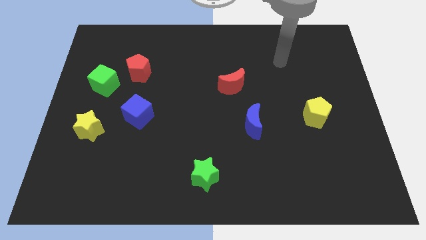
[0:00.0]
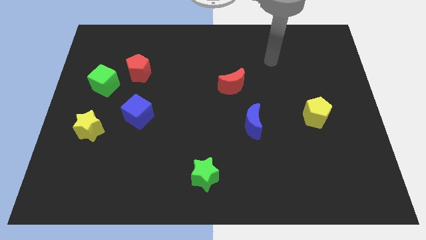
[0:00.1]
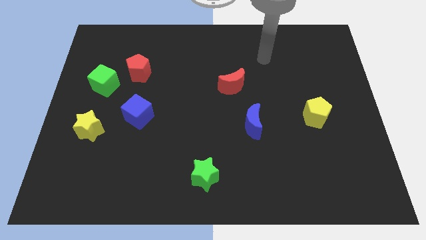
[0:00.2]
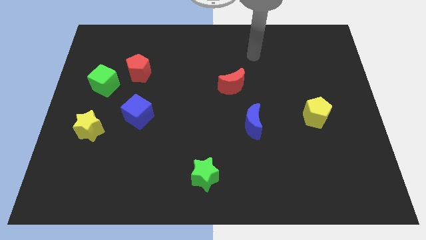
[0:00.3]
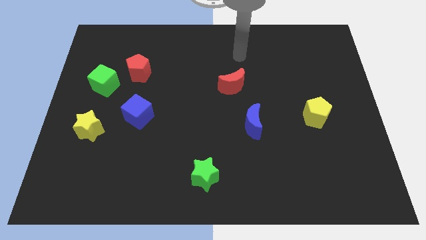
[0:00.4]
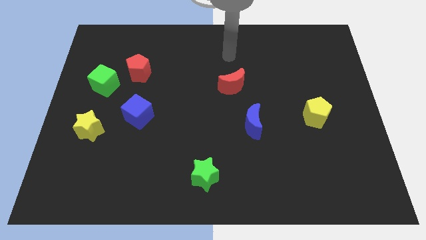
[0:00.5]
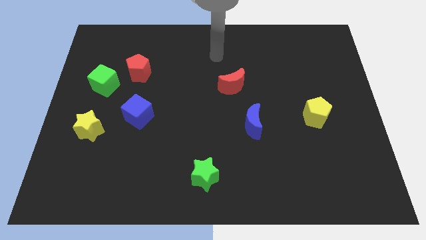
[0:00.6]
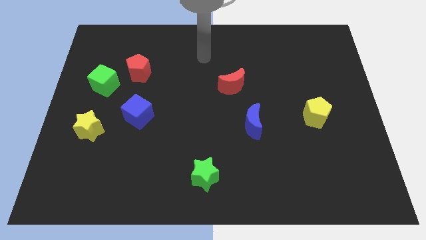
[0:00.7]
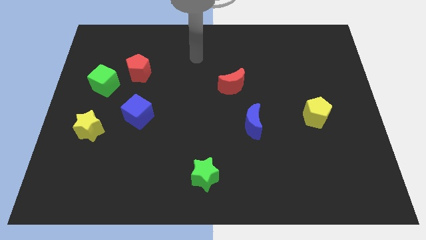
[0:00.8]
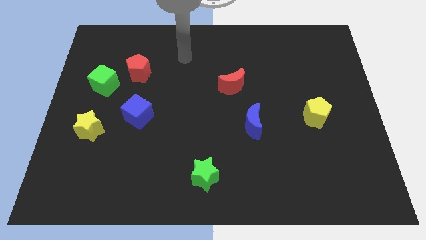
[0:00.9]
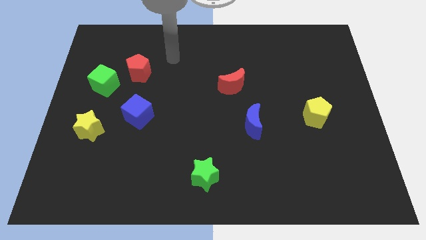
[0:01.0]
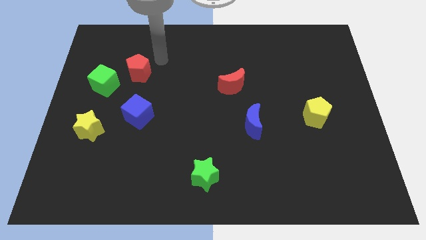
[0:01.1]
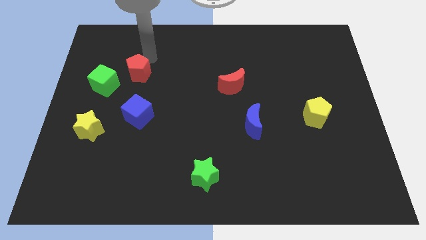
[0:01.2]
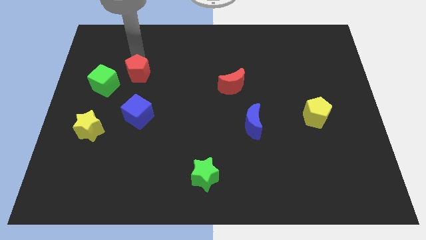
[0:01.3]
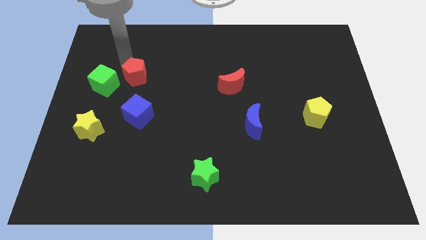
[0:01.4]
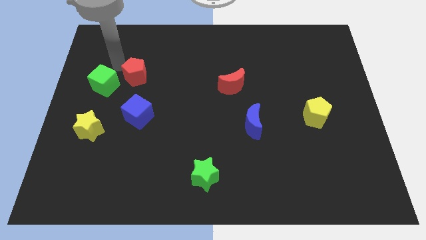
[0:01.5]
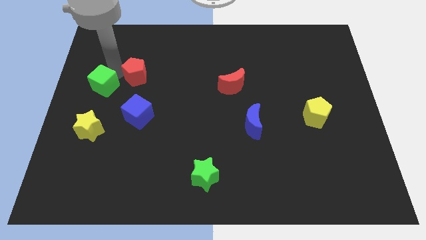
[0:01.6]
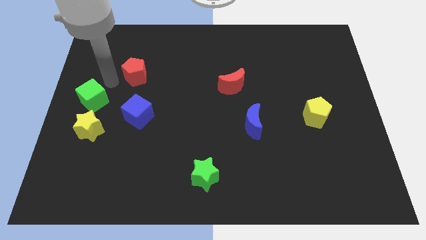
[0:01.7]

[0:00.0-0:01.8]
move the red pentagon away from the green cube

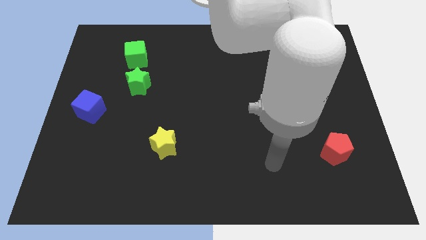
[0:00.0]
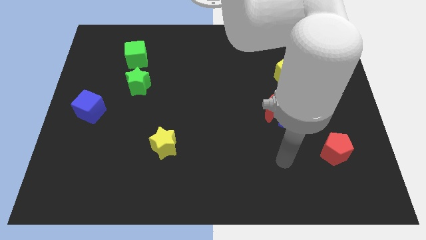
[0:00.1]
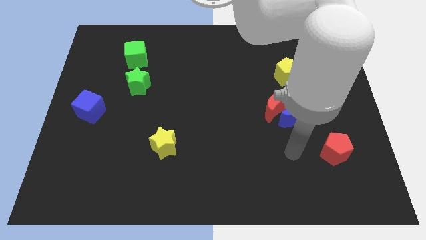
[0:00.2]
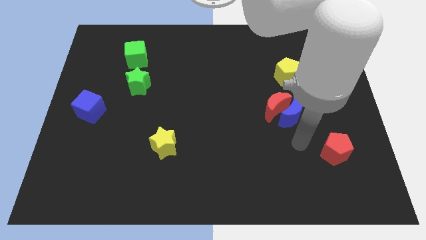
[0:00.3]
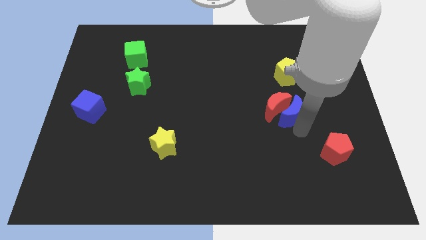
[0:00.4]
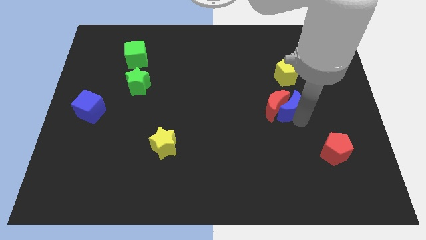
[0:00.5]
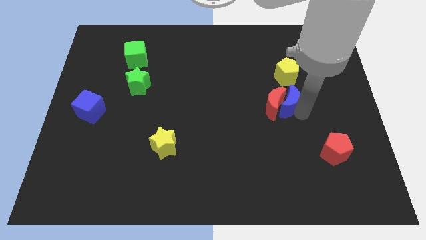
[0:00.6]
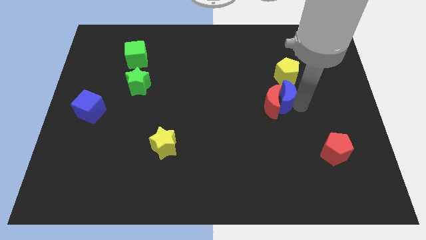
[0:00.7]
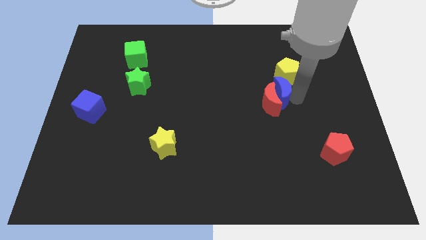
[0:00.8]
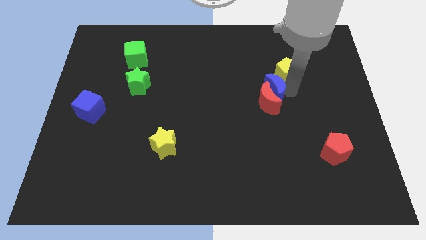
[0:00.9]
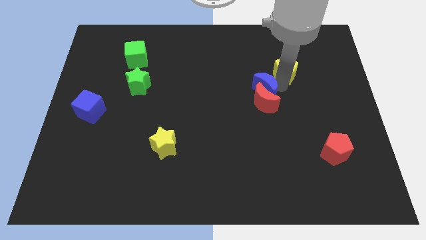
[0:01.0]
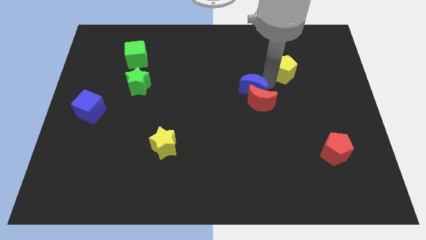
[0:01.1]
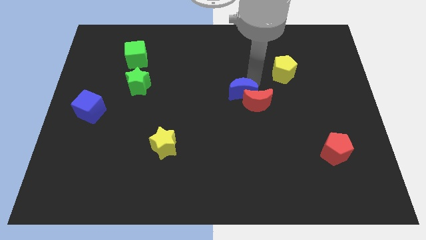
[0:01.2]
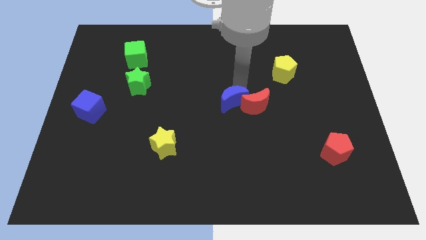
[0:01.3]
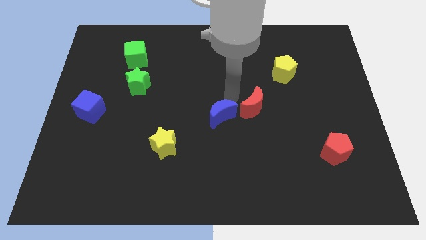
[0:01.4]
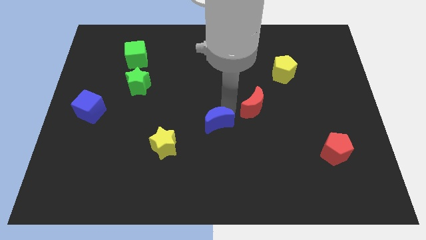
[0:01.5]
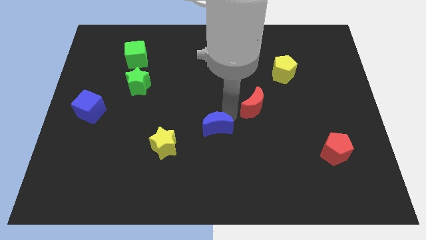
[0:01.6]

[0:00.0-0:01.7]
separate the red moon from the blue moon

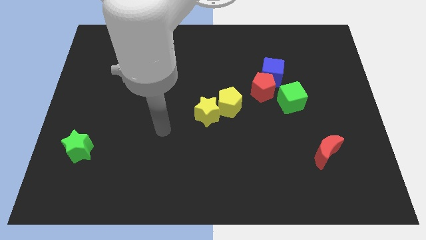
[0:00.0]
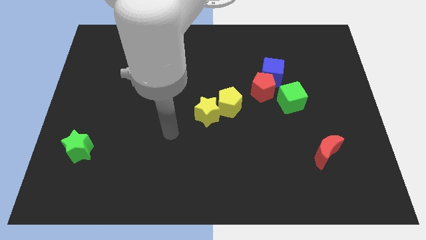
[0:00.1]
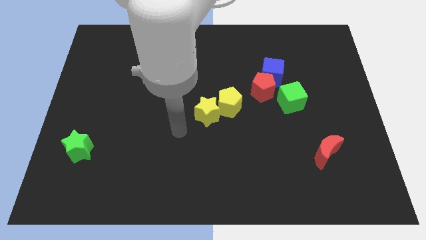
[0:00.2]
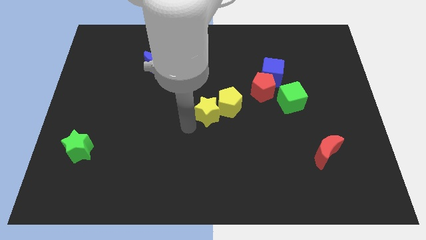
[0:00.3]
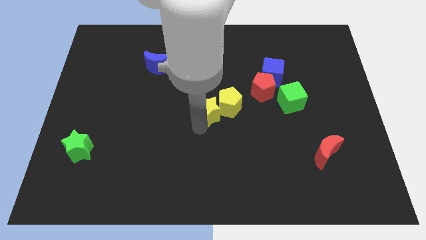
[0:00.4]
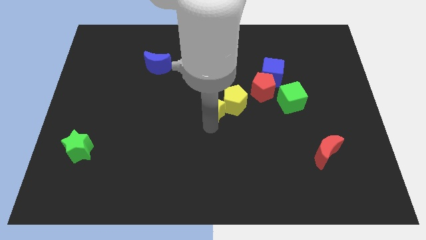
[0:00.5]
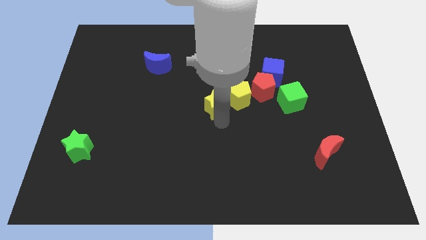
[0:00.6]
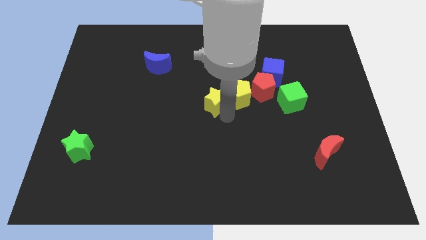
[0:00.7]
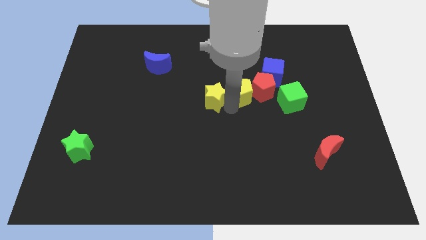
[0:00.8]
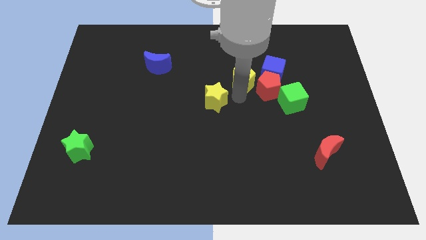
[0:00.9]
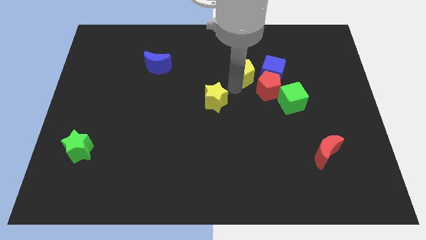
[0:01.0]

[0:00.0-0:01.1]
pull the yellow star apart from the yellow pentagon

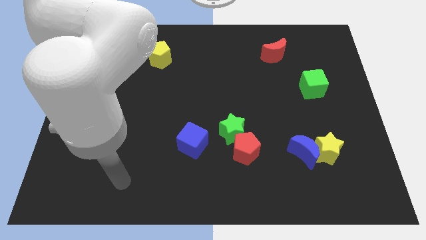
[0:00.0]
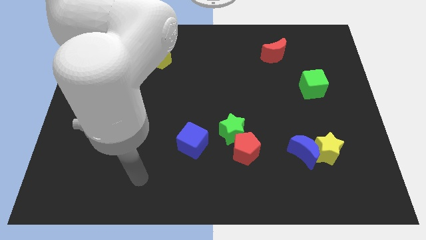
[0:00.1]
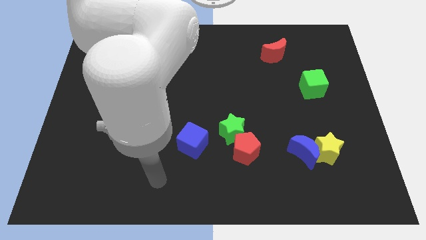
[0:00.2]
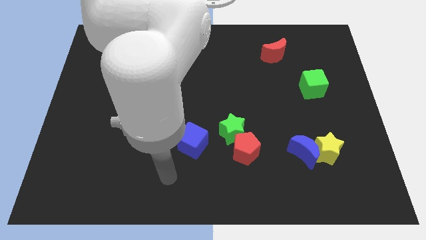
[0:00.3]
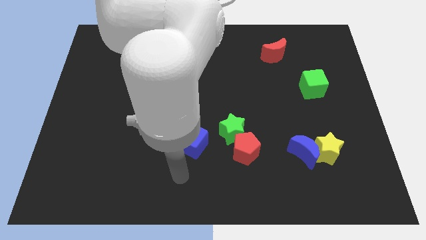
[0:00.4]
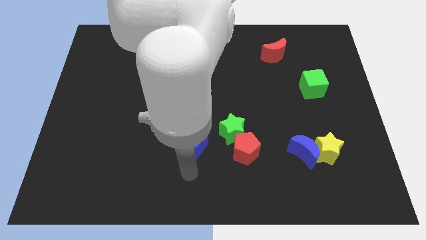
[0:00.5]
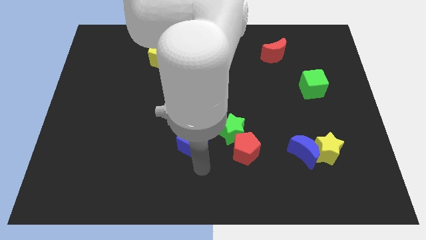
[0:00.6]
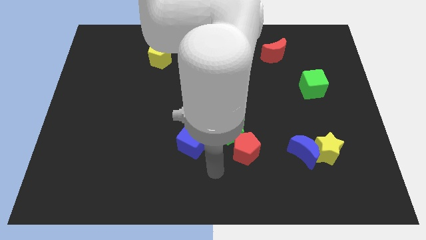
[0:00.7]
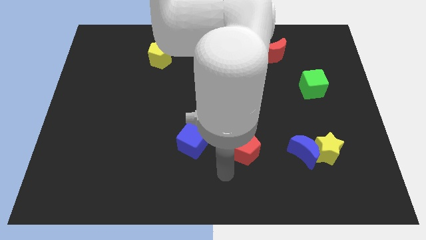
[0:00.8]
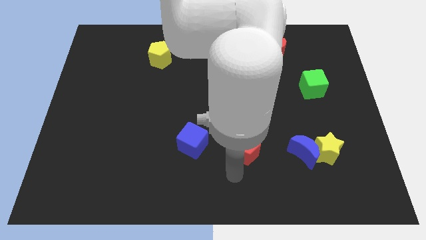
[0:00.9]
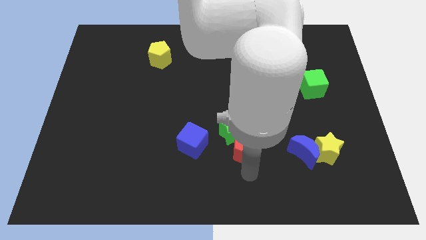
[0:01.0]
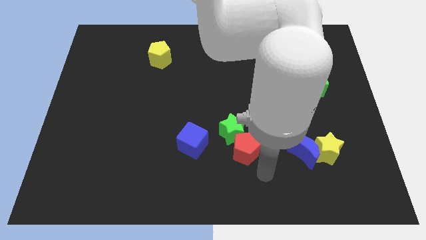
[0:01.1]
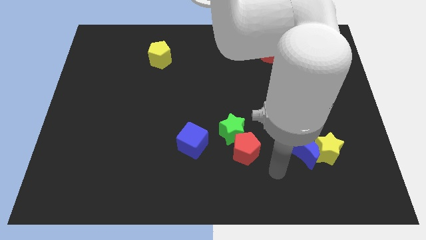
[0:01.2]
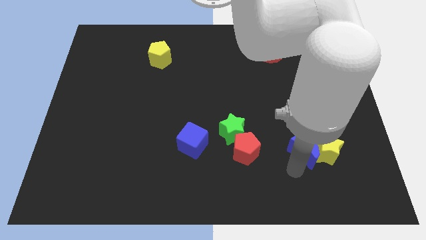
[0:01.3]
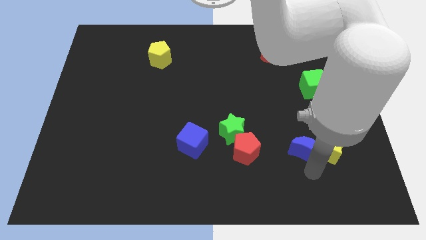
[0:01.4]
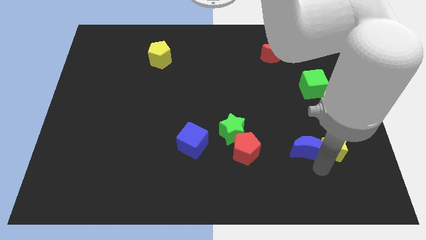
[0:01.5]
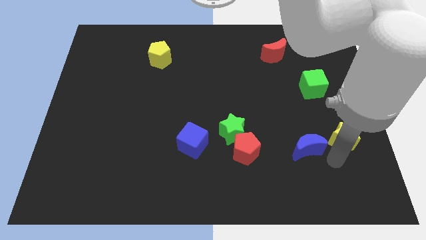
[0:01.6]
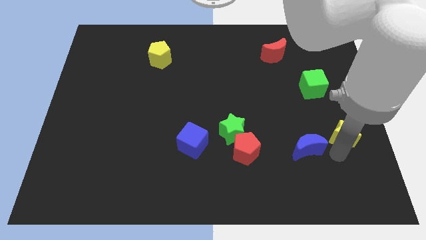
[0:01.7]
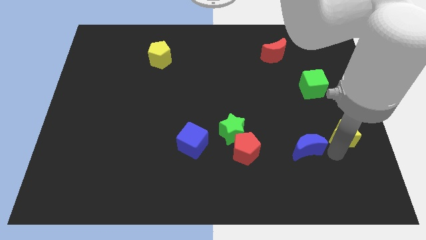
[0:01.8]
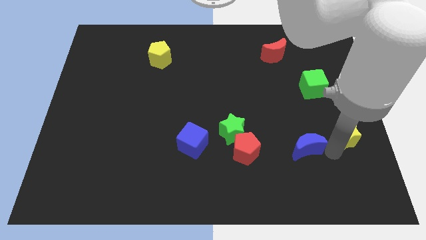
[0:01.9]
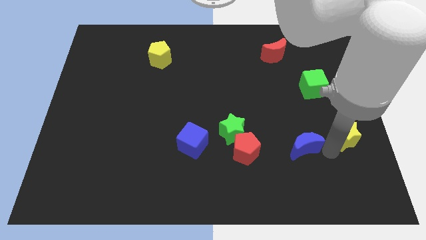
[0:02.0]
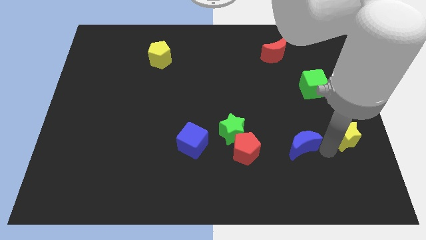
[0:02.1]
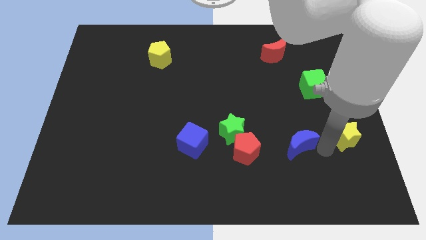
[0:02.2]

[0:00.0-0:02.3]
separate the blue moon from the yellow star

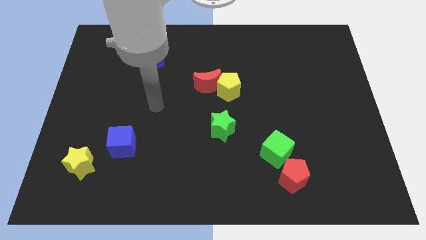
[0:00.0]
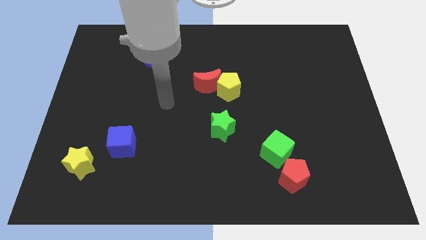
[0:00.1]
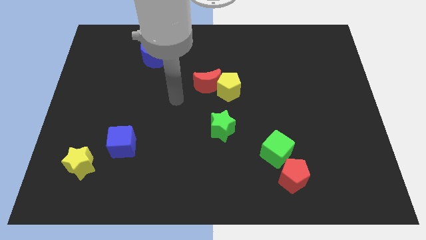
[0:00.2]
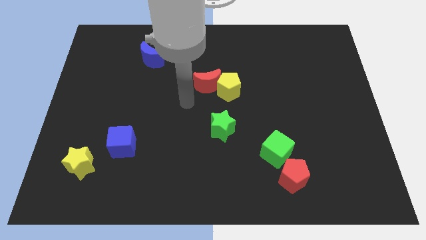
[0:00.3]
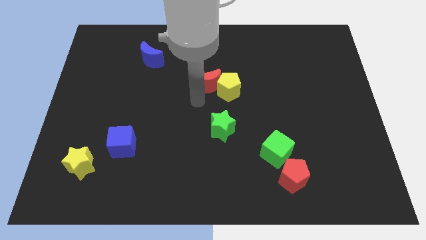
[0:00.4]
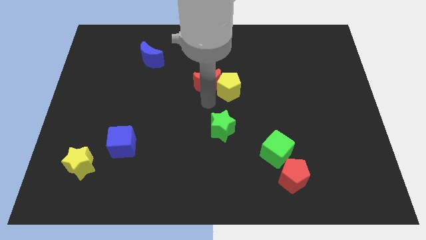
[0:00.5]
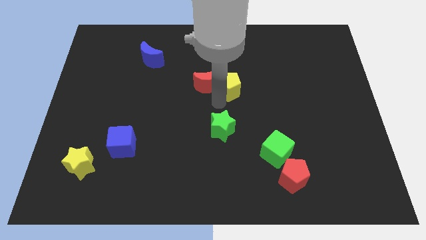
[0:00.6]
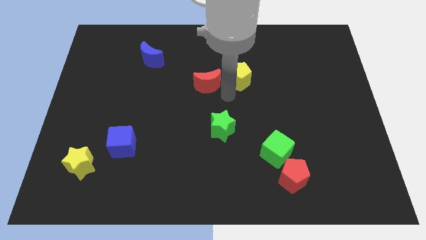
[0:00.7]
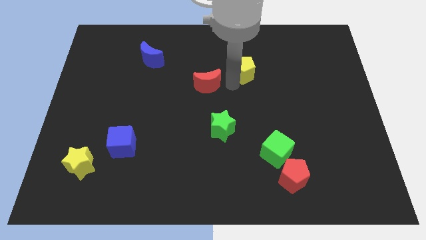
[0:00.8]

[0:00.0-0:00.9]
move the red moon away from the yellow pentagon

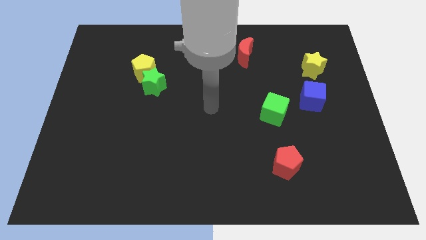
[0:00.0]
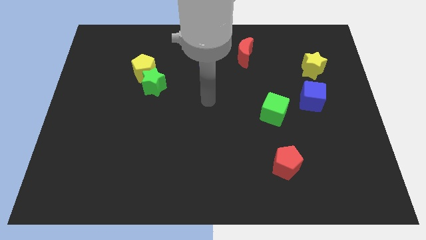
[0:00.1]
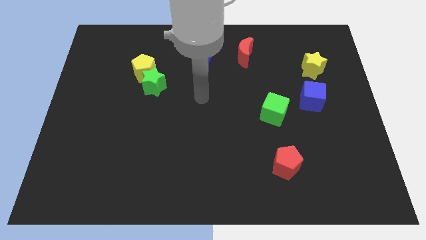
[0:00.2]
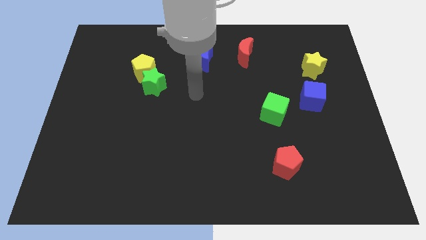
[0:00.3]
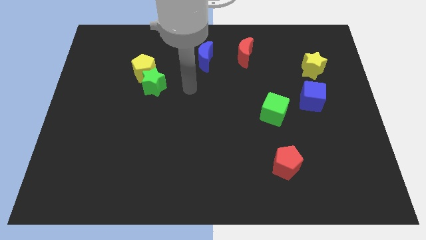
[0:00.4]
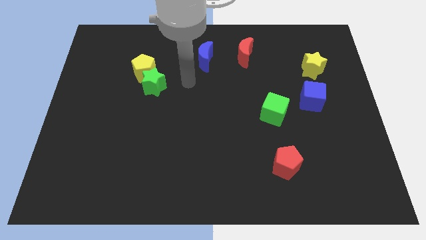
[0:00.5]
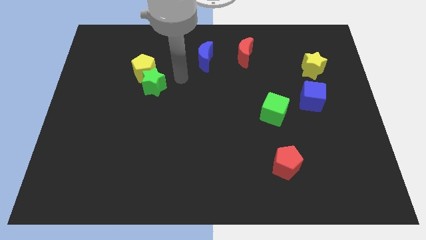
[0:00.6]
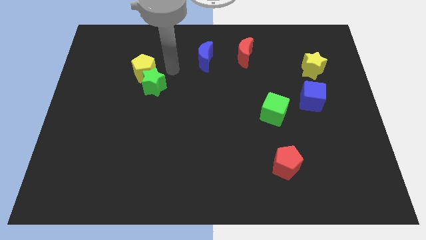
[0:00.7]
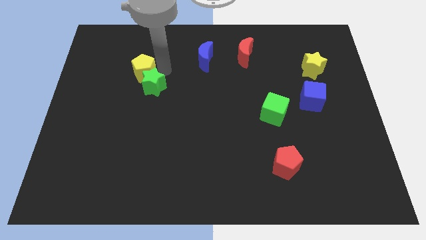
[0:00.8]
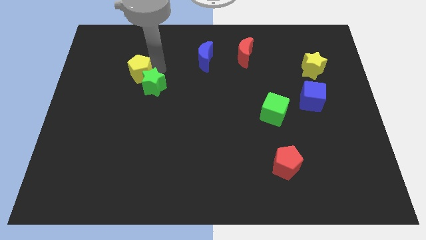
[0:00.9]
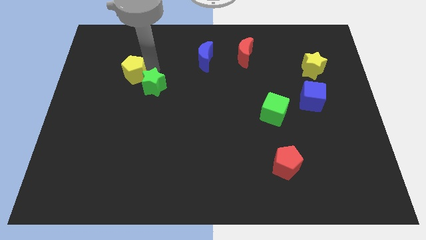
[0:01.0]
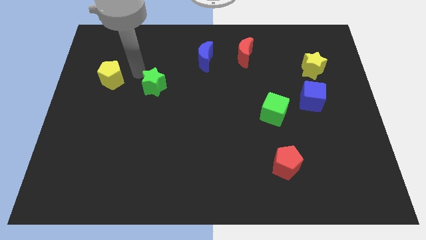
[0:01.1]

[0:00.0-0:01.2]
move the green star away from the yellow pentagon

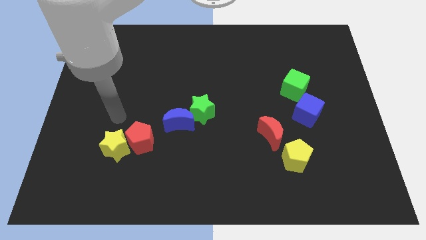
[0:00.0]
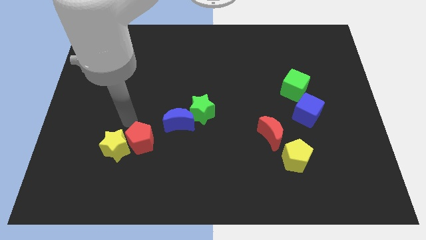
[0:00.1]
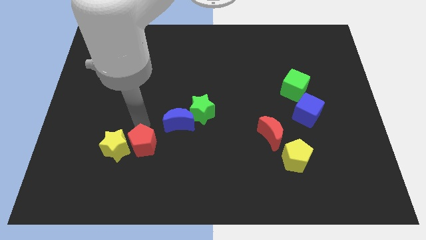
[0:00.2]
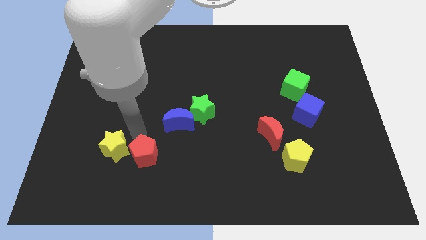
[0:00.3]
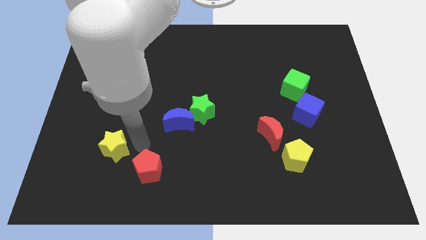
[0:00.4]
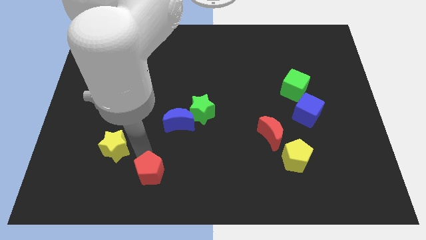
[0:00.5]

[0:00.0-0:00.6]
separate the yellow star from the red pentagon
